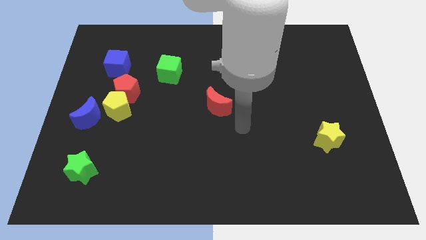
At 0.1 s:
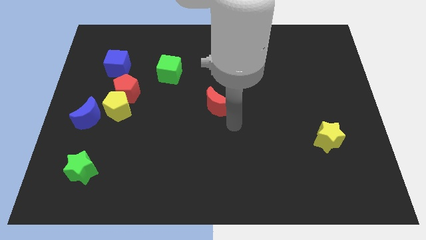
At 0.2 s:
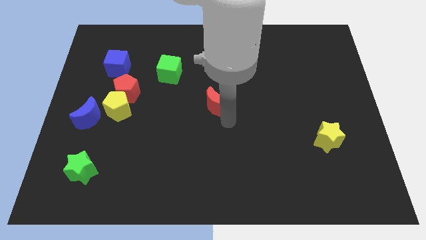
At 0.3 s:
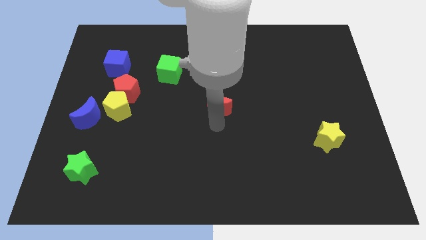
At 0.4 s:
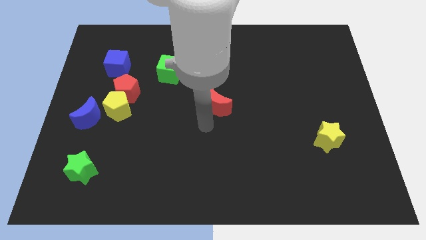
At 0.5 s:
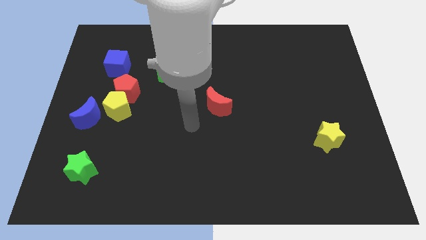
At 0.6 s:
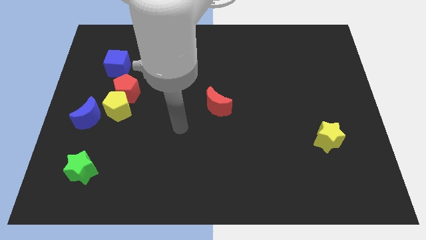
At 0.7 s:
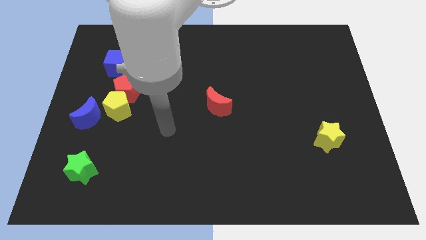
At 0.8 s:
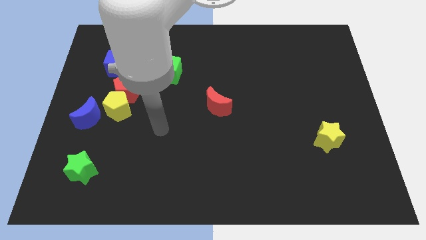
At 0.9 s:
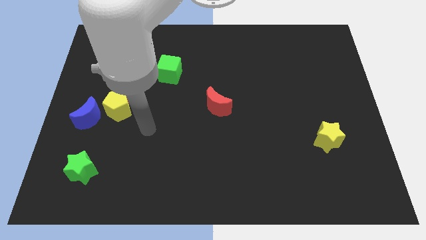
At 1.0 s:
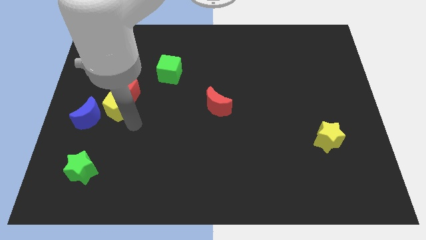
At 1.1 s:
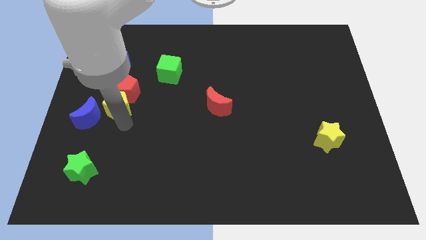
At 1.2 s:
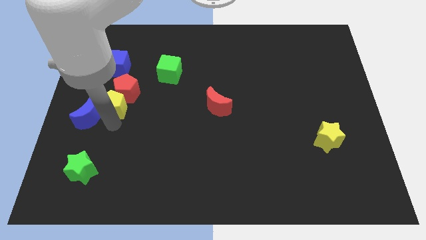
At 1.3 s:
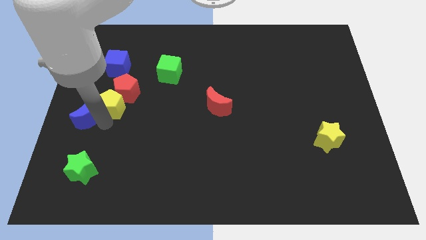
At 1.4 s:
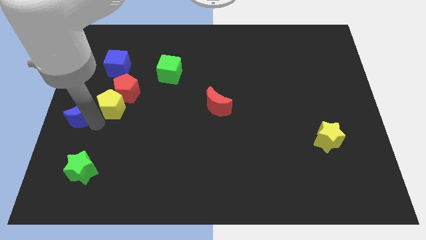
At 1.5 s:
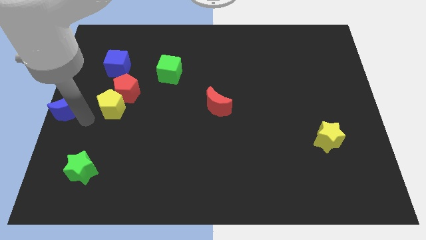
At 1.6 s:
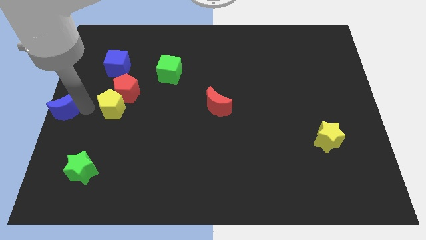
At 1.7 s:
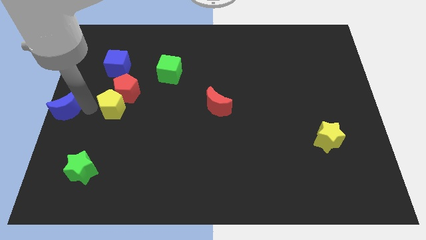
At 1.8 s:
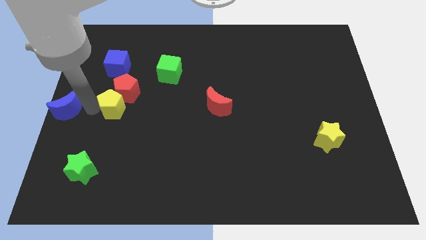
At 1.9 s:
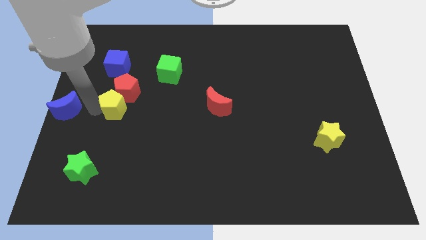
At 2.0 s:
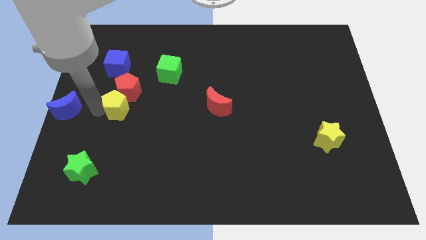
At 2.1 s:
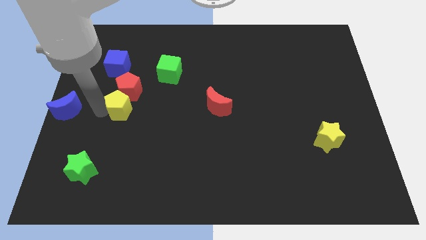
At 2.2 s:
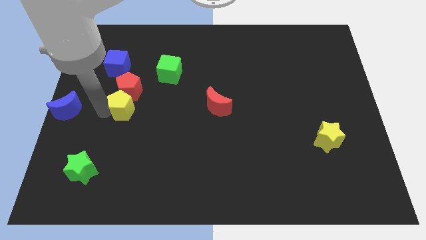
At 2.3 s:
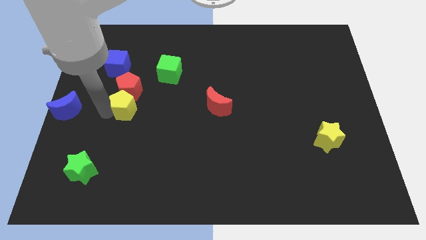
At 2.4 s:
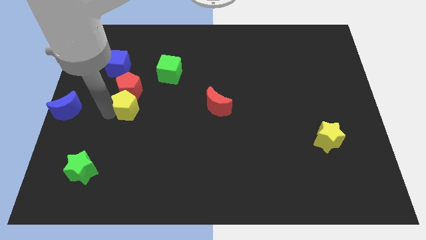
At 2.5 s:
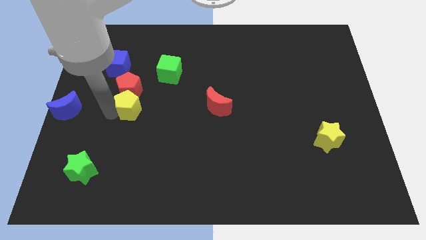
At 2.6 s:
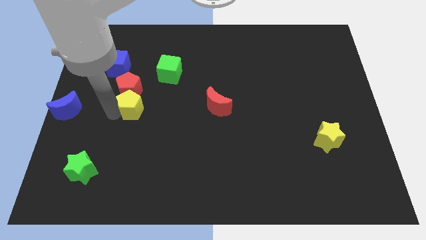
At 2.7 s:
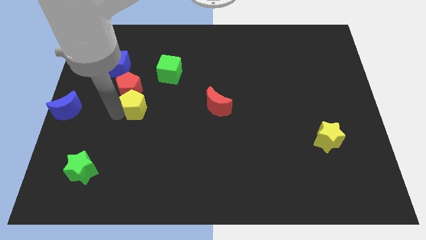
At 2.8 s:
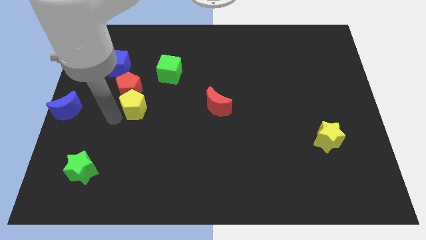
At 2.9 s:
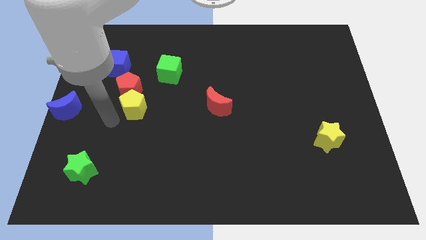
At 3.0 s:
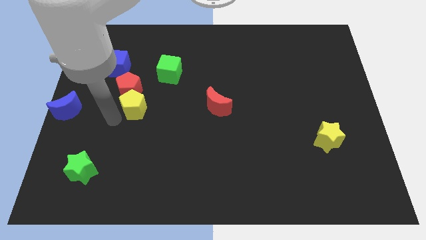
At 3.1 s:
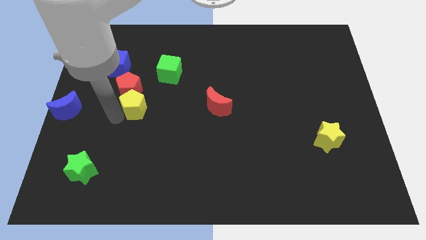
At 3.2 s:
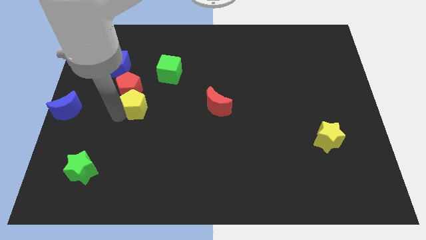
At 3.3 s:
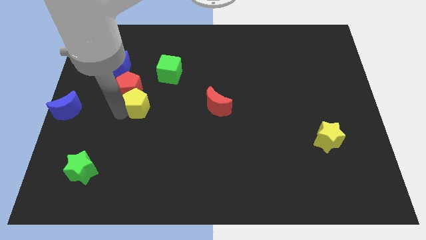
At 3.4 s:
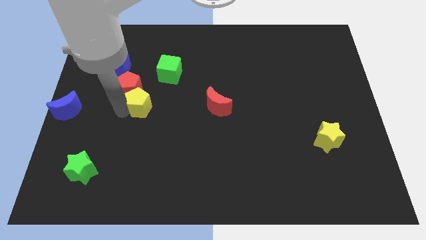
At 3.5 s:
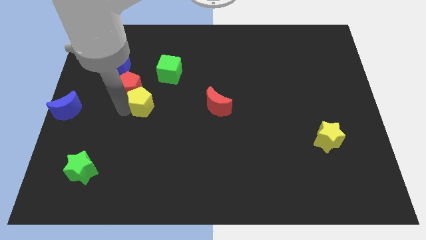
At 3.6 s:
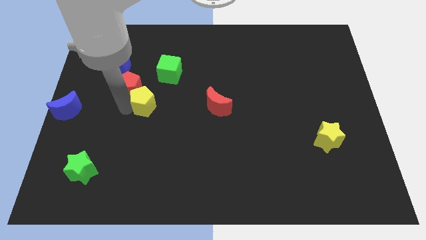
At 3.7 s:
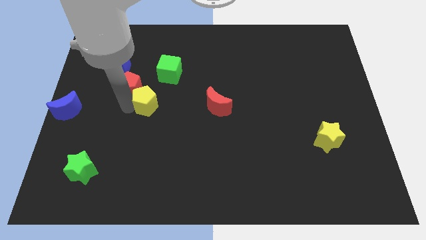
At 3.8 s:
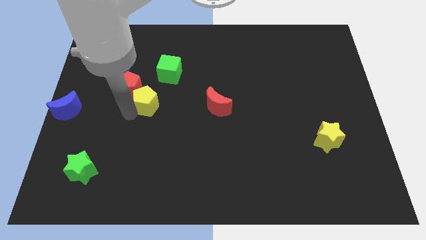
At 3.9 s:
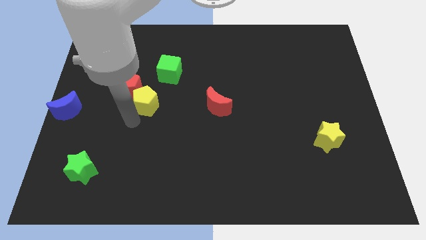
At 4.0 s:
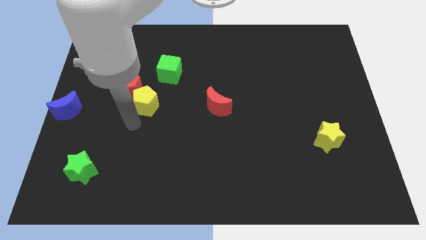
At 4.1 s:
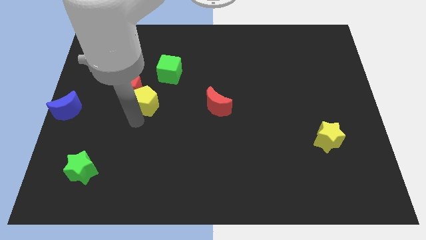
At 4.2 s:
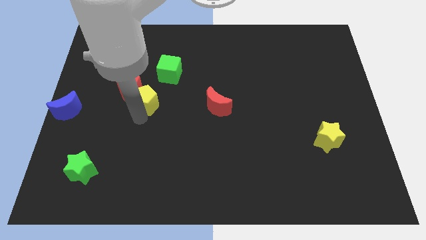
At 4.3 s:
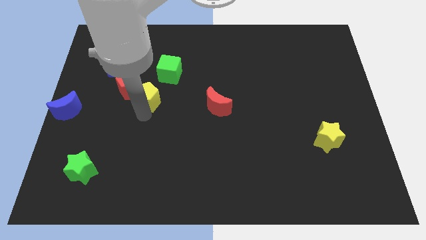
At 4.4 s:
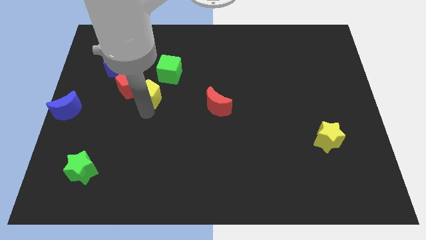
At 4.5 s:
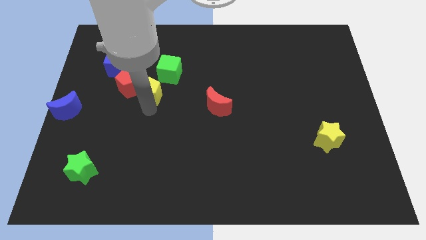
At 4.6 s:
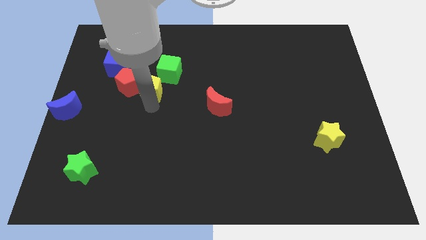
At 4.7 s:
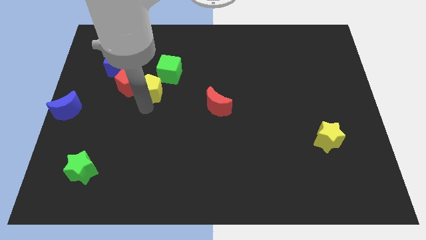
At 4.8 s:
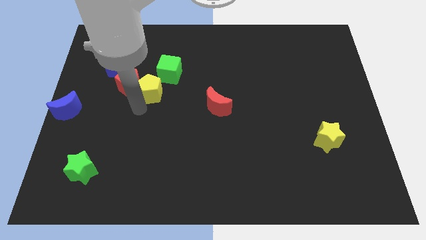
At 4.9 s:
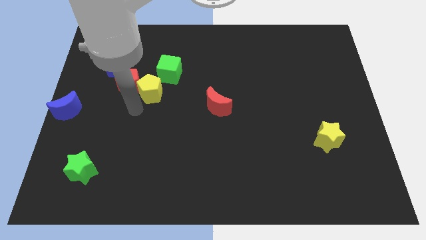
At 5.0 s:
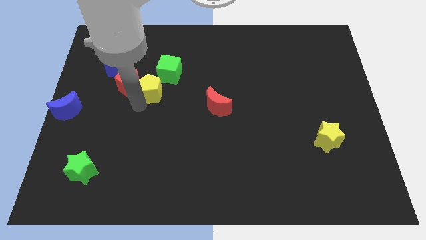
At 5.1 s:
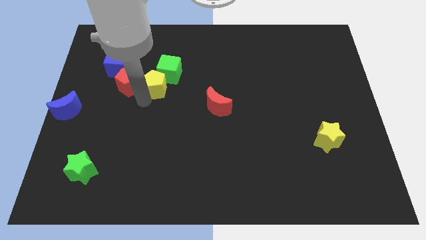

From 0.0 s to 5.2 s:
slide the yellow pentagon next to the green cube

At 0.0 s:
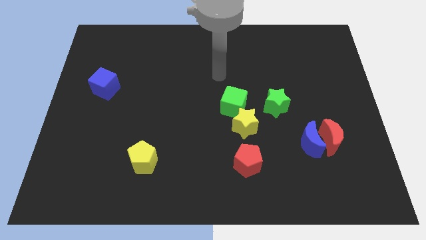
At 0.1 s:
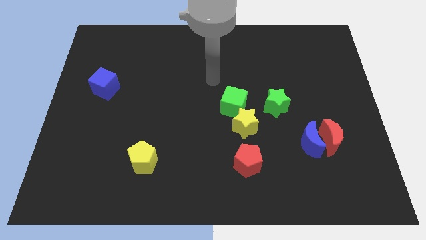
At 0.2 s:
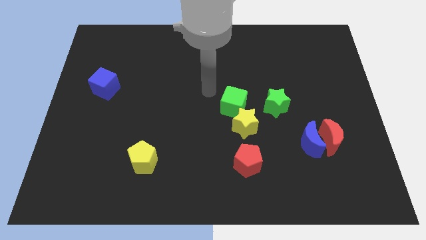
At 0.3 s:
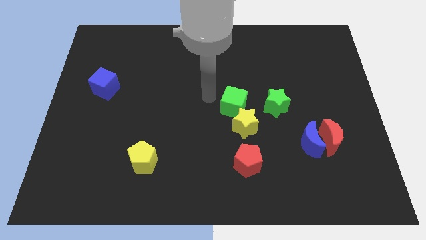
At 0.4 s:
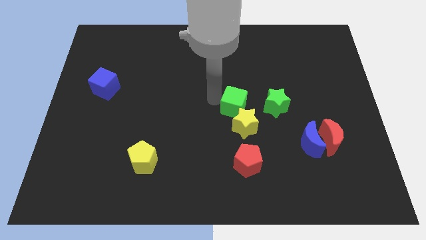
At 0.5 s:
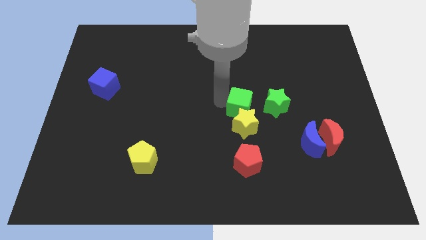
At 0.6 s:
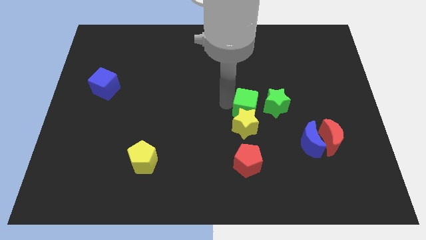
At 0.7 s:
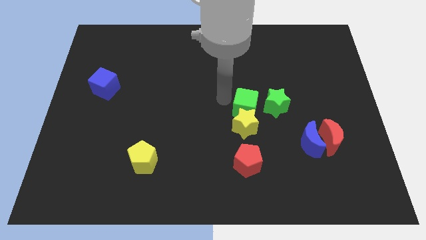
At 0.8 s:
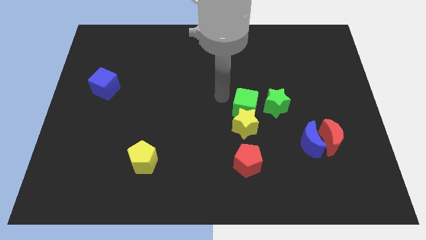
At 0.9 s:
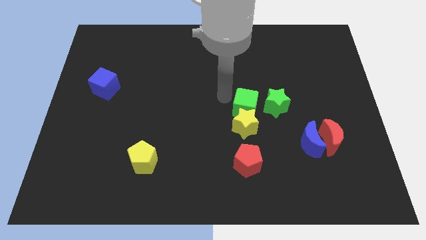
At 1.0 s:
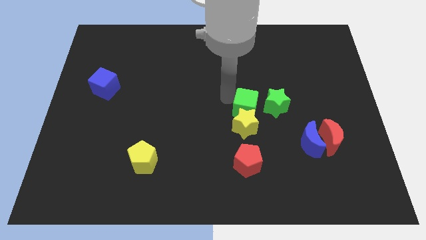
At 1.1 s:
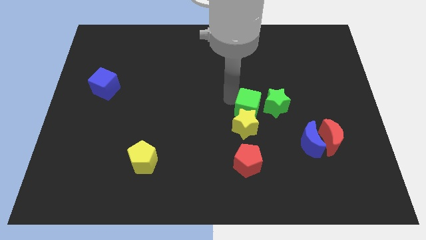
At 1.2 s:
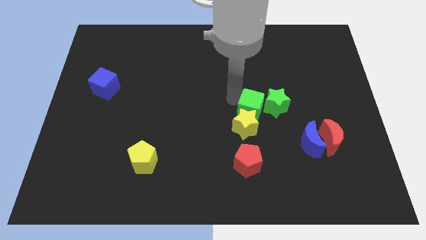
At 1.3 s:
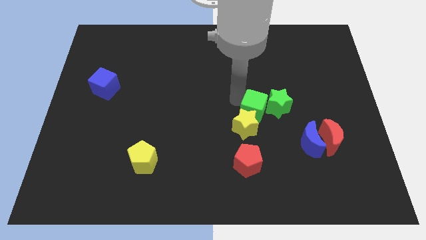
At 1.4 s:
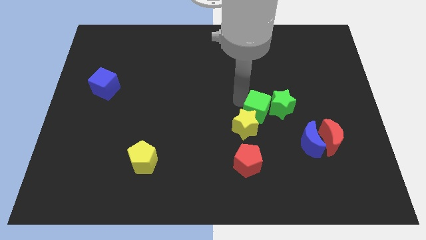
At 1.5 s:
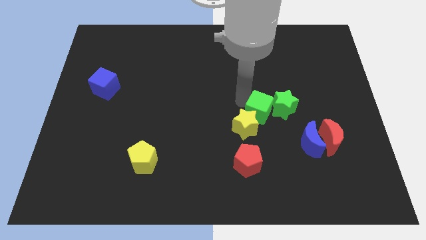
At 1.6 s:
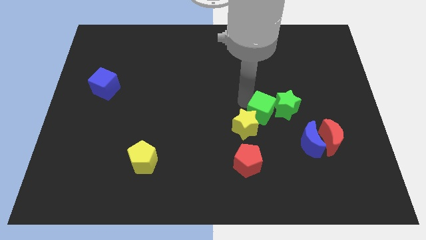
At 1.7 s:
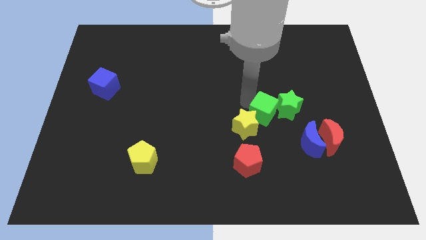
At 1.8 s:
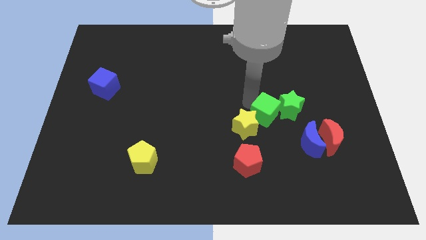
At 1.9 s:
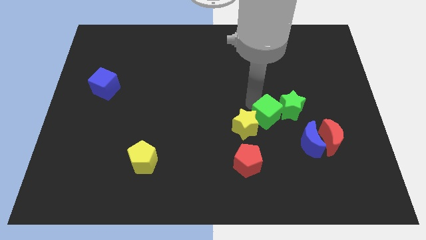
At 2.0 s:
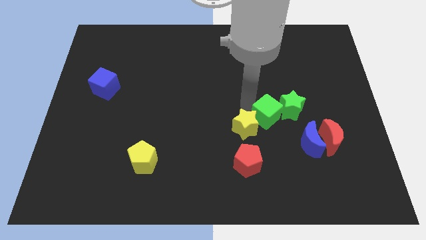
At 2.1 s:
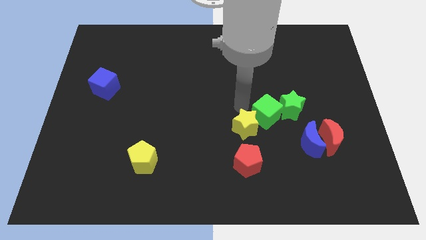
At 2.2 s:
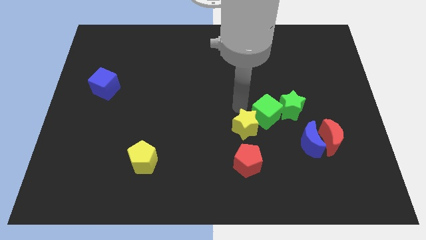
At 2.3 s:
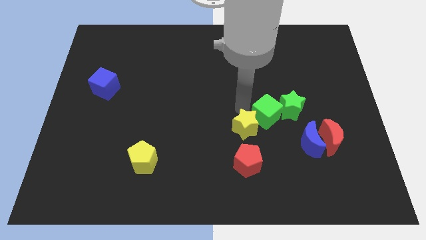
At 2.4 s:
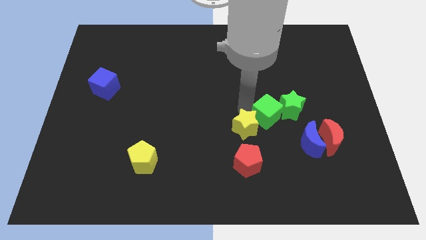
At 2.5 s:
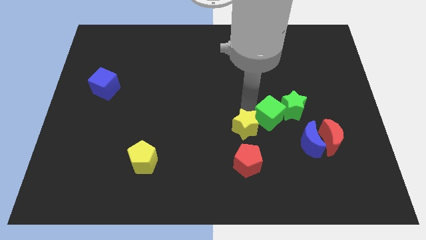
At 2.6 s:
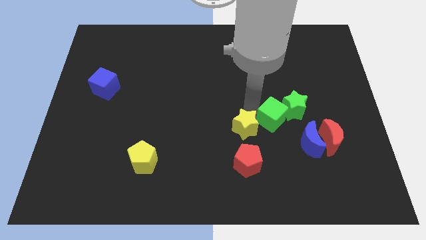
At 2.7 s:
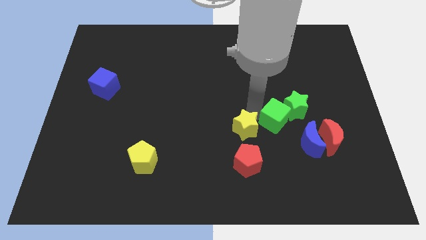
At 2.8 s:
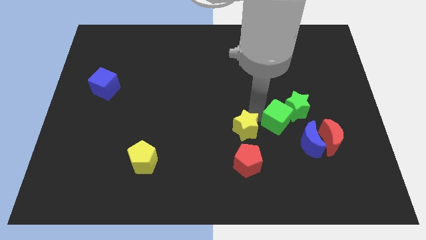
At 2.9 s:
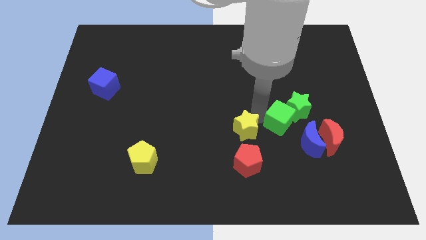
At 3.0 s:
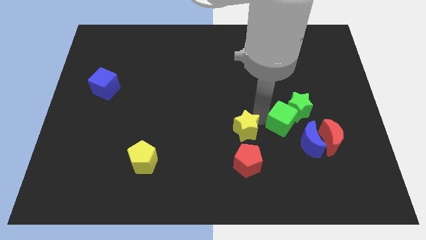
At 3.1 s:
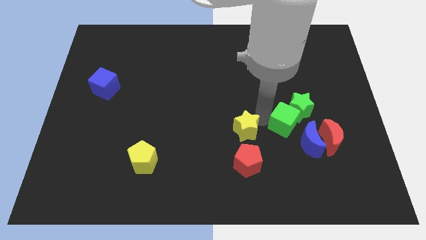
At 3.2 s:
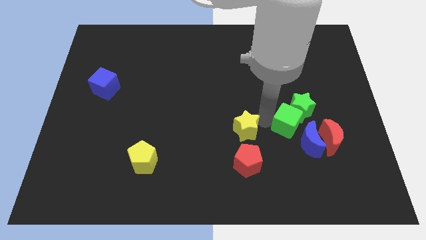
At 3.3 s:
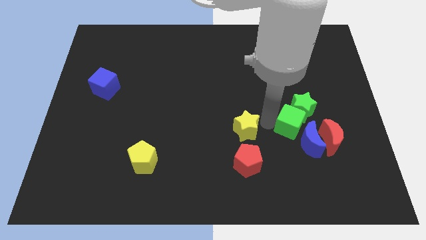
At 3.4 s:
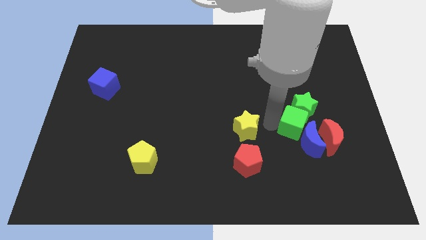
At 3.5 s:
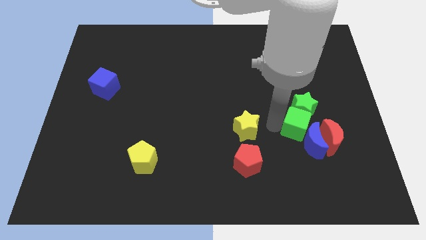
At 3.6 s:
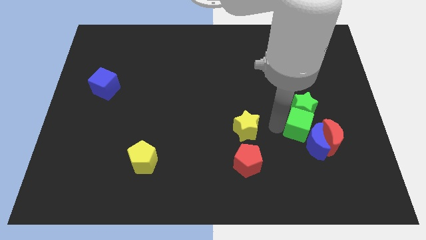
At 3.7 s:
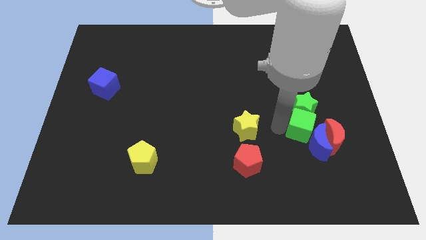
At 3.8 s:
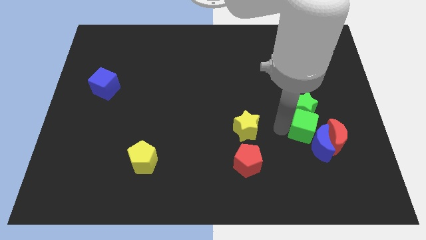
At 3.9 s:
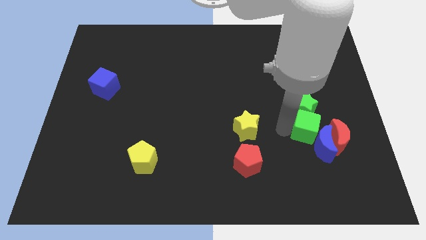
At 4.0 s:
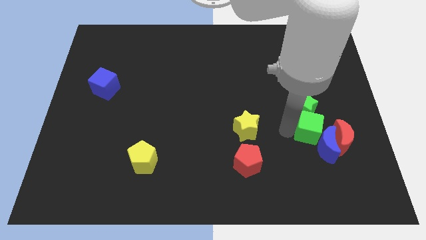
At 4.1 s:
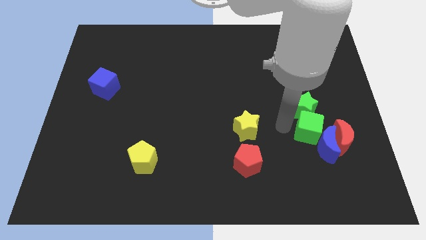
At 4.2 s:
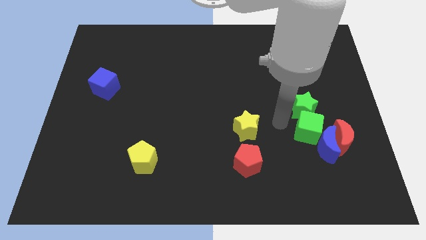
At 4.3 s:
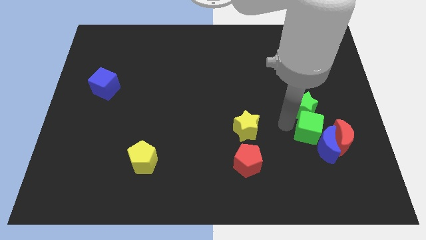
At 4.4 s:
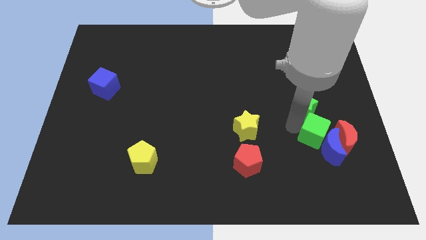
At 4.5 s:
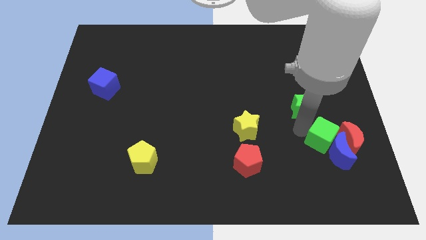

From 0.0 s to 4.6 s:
put the green cube close to the red moon
